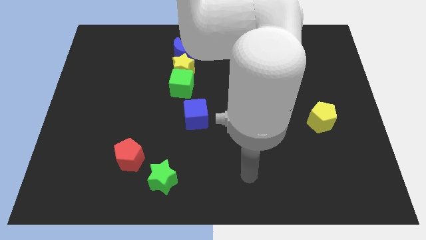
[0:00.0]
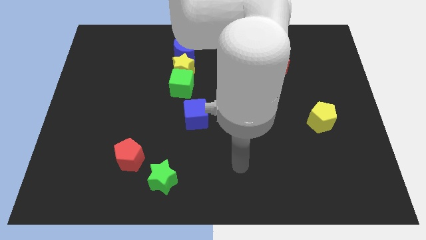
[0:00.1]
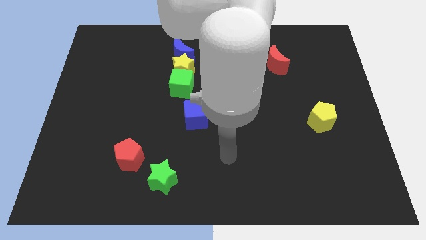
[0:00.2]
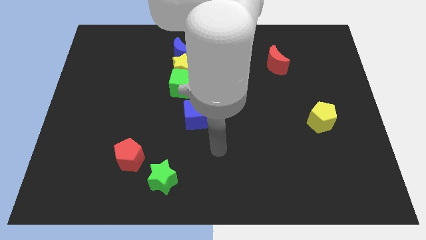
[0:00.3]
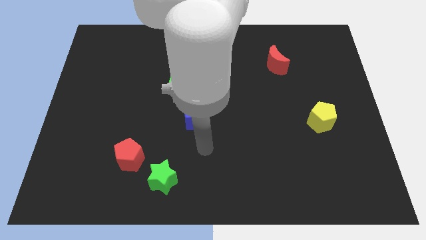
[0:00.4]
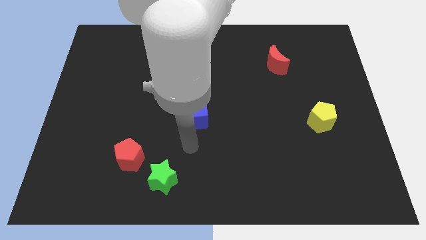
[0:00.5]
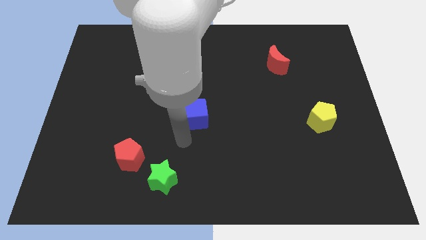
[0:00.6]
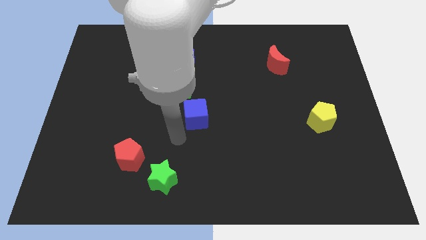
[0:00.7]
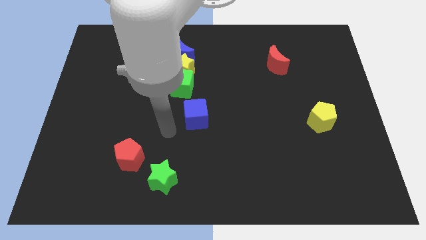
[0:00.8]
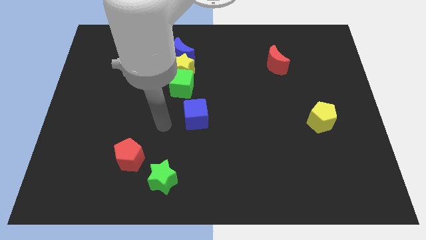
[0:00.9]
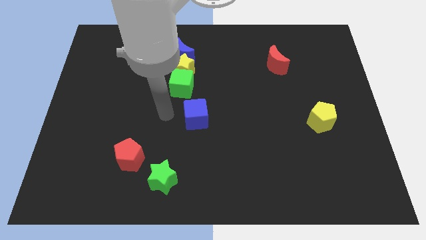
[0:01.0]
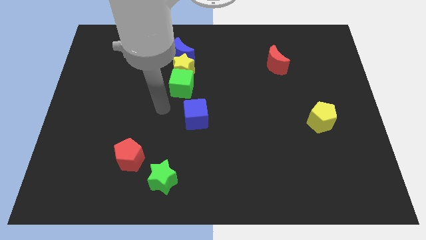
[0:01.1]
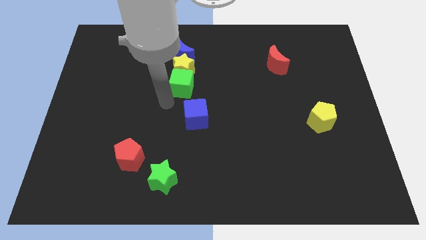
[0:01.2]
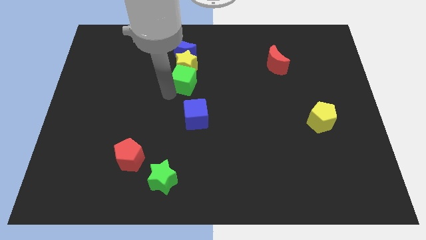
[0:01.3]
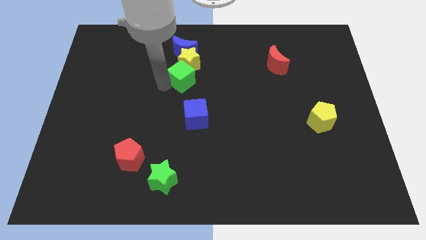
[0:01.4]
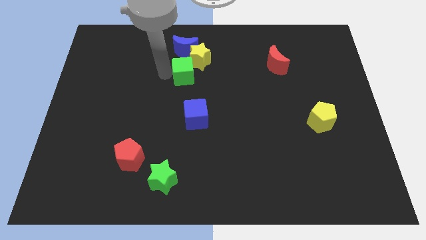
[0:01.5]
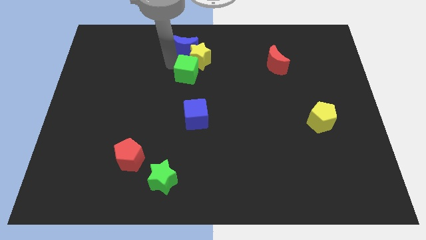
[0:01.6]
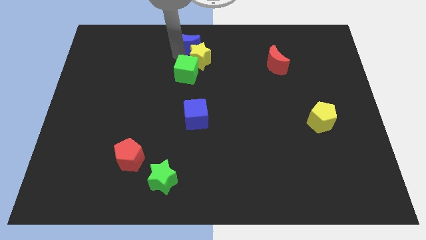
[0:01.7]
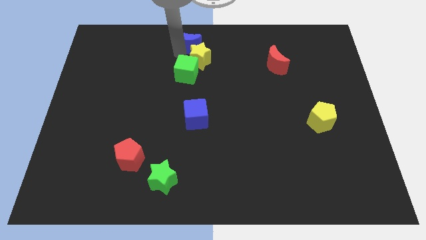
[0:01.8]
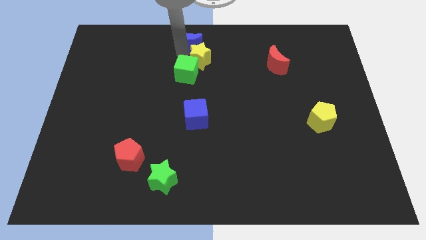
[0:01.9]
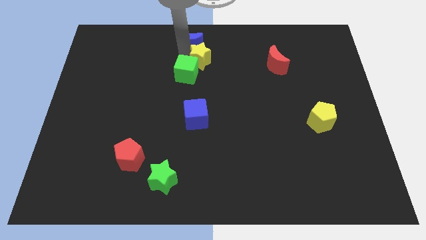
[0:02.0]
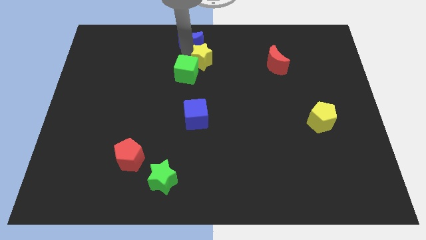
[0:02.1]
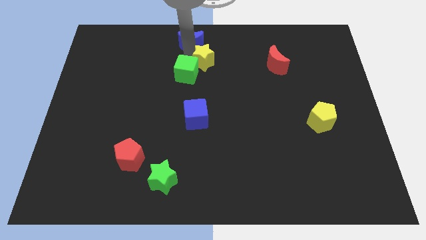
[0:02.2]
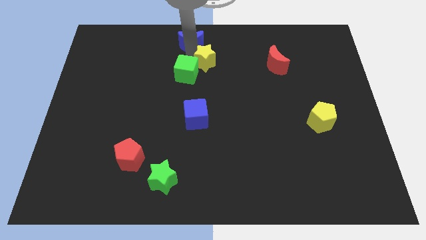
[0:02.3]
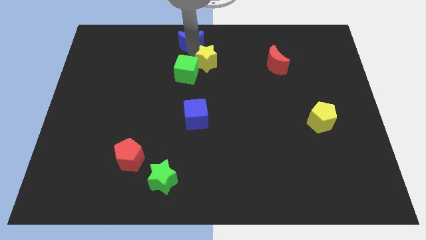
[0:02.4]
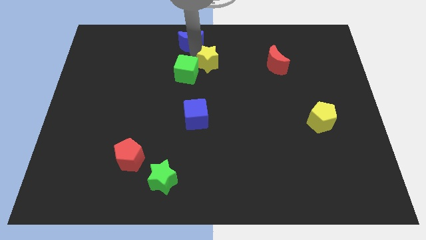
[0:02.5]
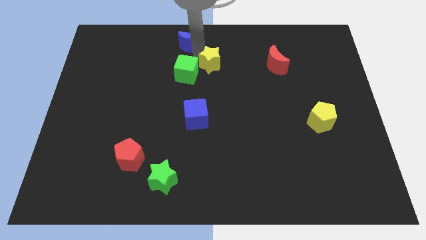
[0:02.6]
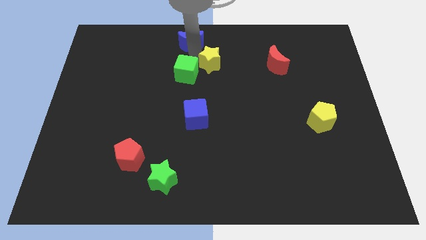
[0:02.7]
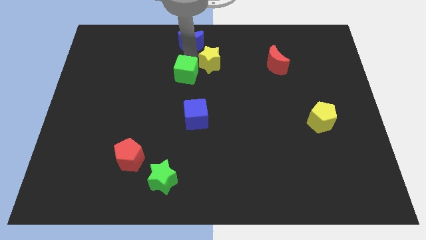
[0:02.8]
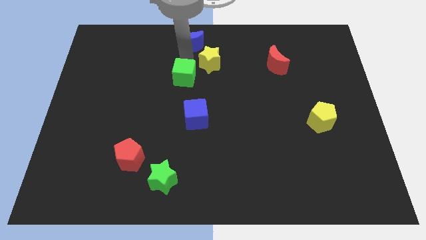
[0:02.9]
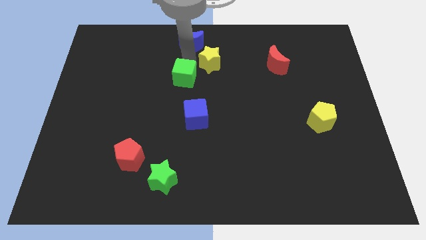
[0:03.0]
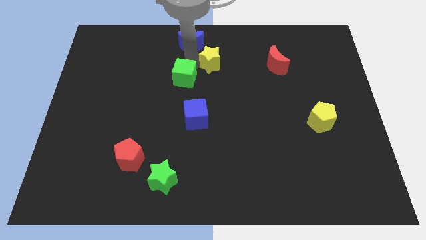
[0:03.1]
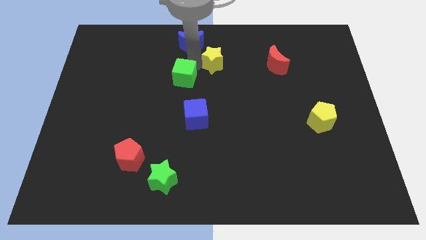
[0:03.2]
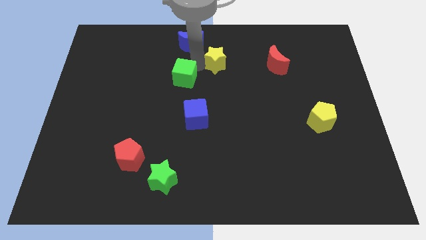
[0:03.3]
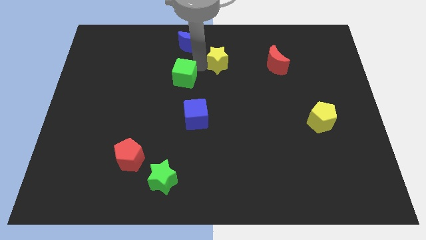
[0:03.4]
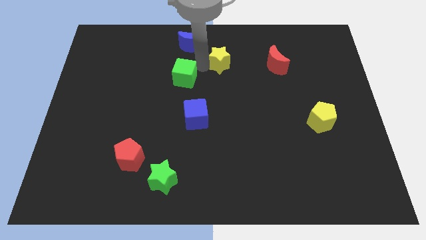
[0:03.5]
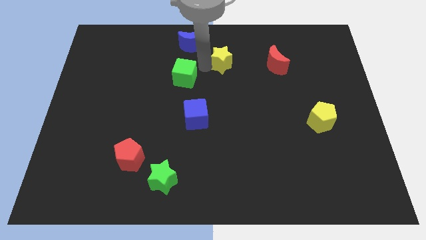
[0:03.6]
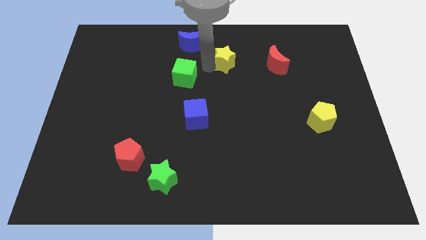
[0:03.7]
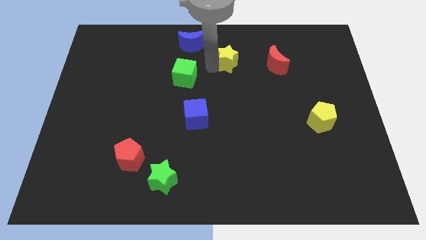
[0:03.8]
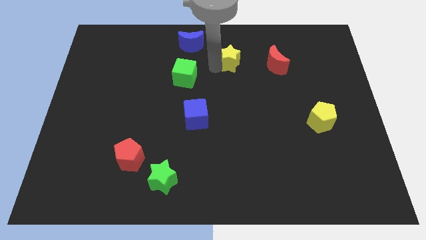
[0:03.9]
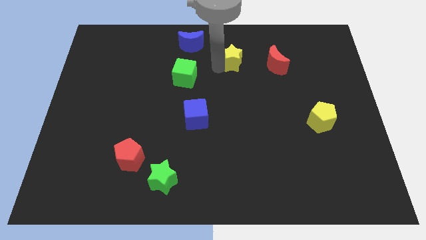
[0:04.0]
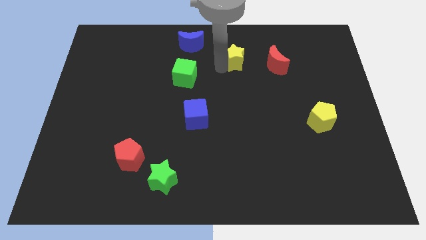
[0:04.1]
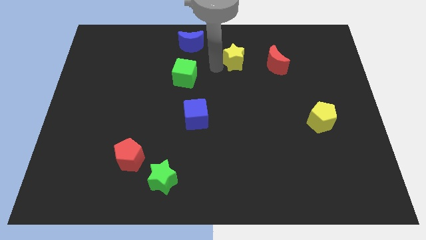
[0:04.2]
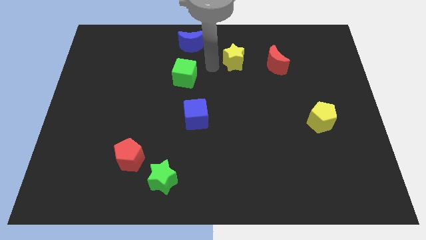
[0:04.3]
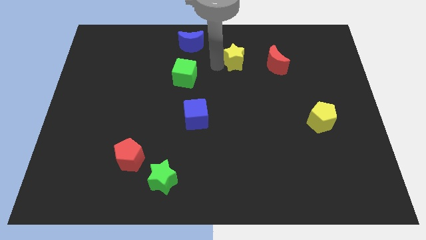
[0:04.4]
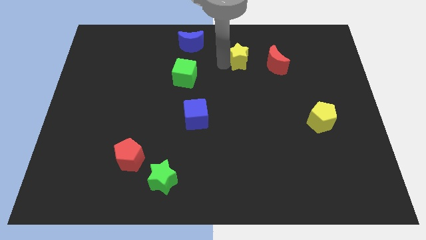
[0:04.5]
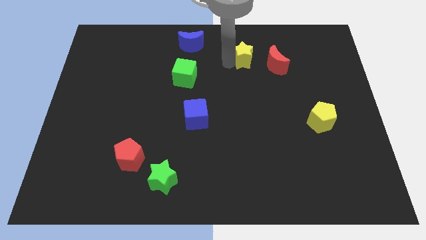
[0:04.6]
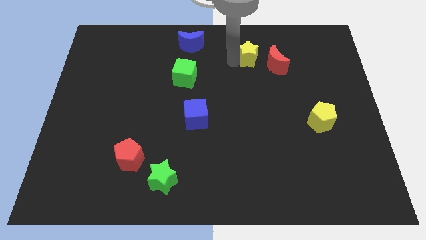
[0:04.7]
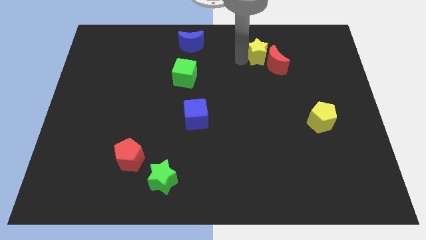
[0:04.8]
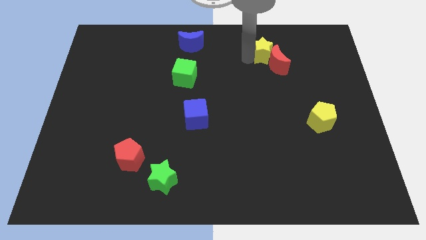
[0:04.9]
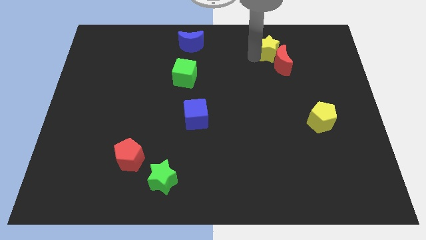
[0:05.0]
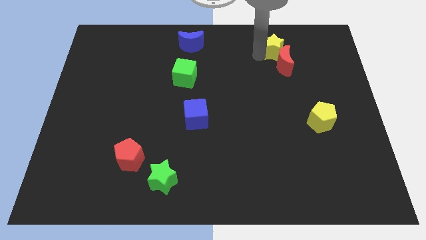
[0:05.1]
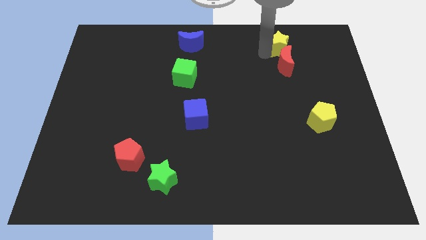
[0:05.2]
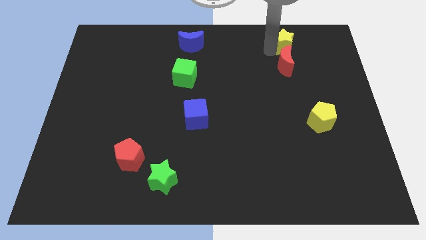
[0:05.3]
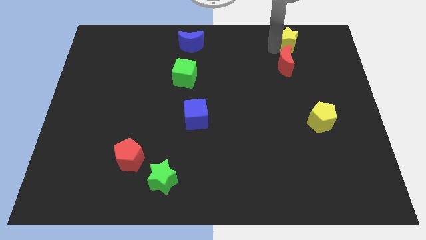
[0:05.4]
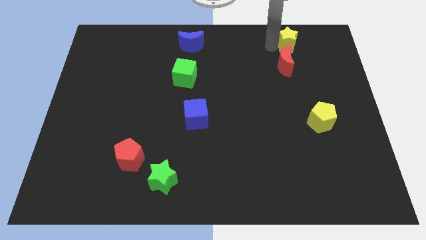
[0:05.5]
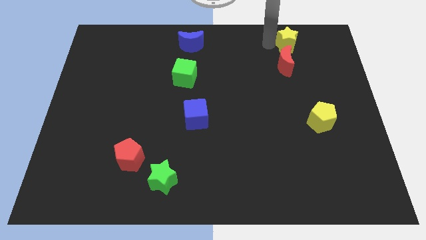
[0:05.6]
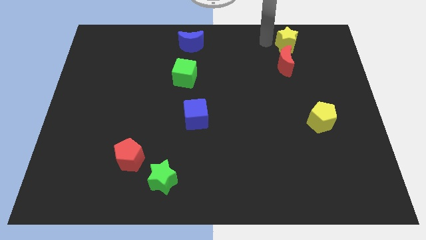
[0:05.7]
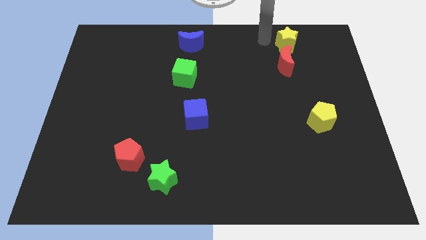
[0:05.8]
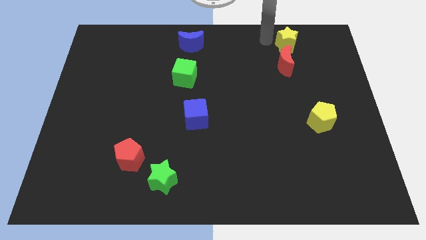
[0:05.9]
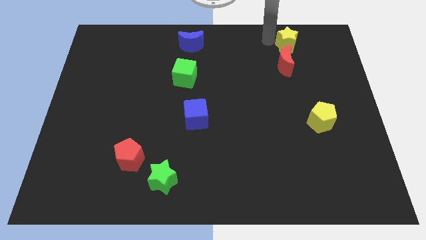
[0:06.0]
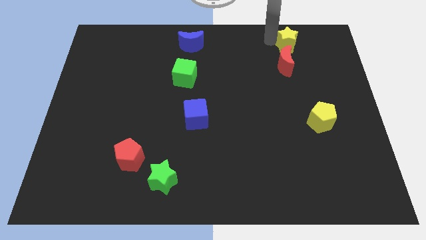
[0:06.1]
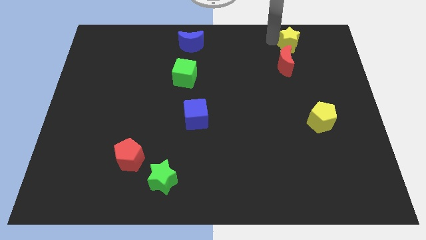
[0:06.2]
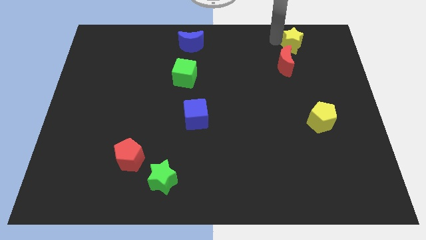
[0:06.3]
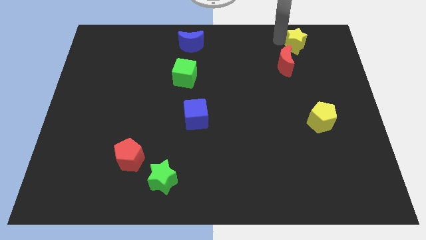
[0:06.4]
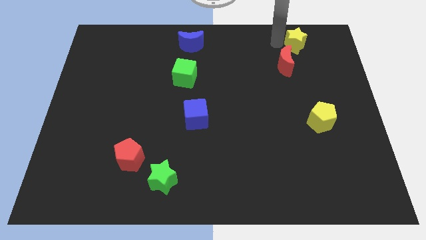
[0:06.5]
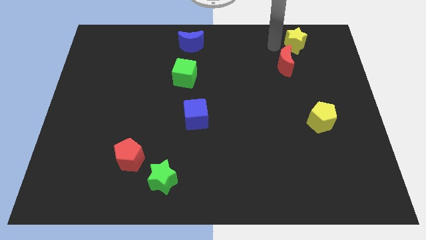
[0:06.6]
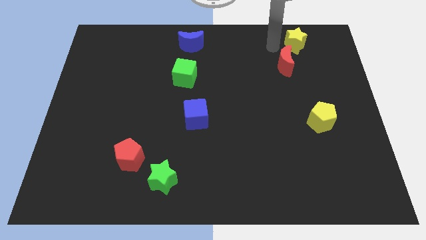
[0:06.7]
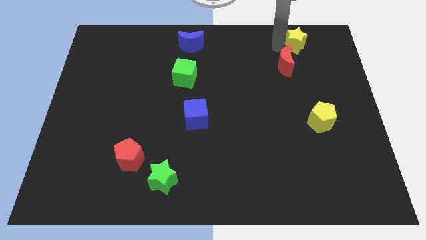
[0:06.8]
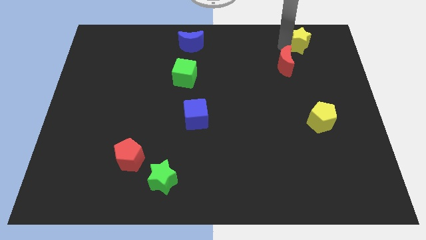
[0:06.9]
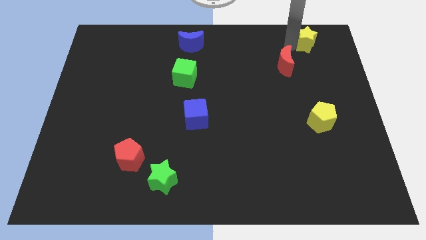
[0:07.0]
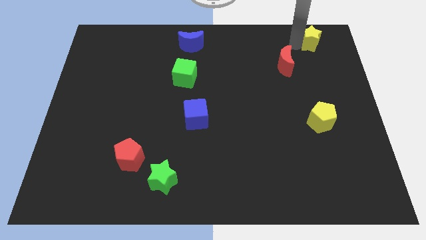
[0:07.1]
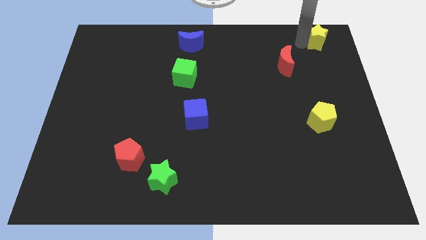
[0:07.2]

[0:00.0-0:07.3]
push the yellow star to the top right of the board

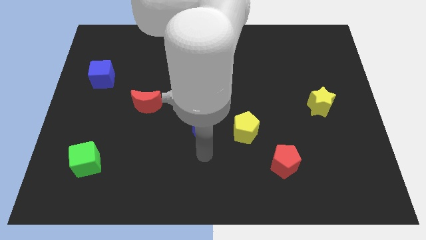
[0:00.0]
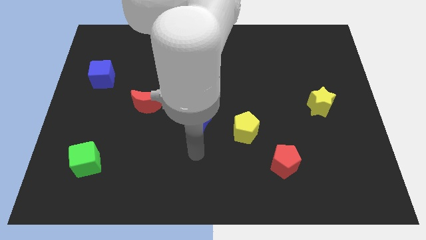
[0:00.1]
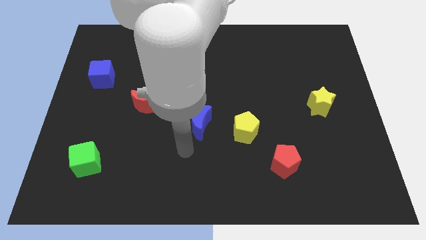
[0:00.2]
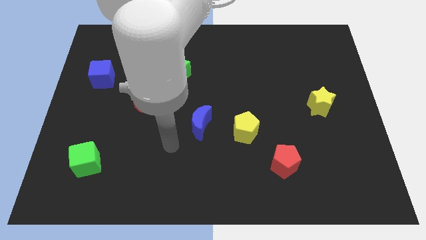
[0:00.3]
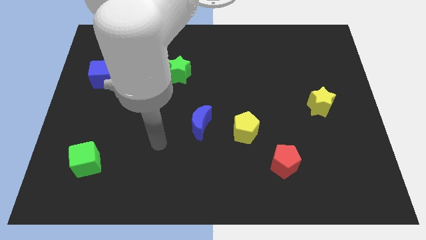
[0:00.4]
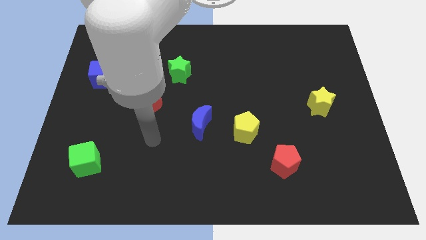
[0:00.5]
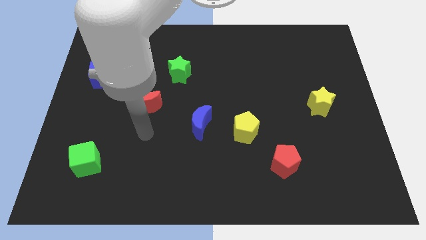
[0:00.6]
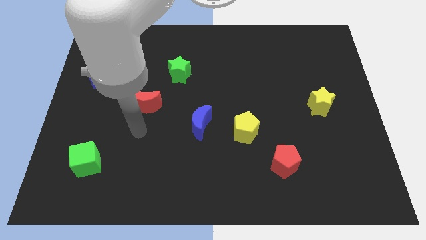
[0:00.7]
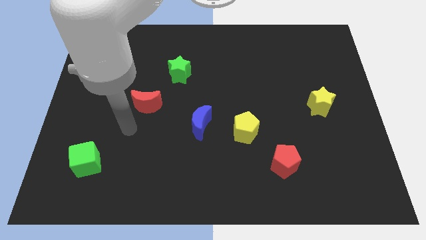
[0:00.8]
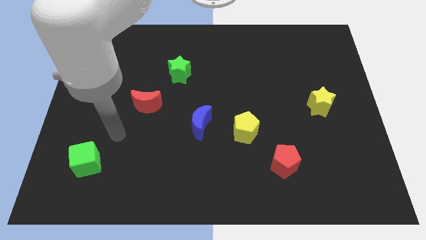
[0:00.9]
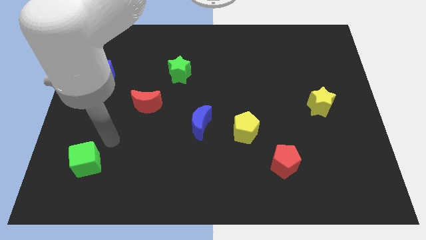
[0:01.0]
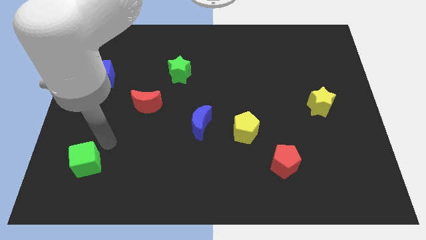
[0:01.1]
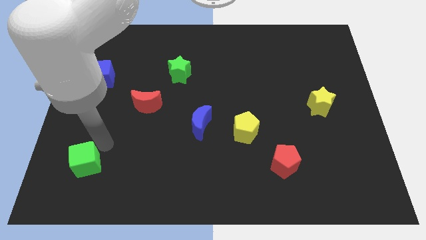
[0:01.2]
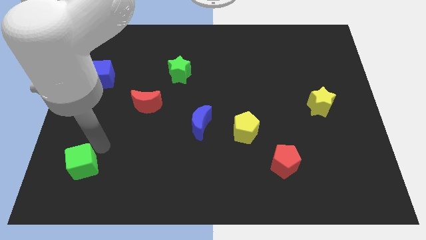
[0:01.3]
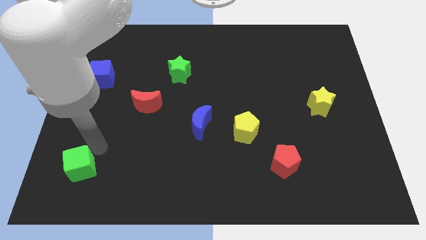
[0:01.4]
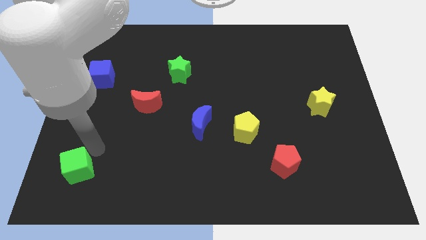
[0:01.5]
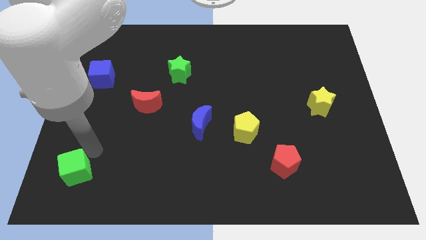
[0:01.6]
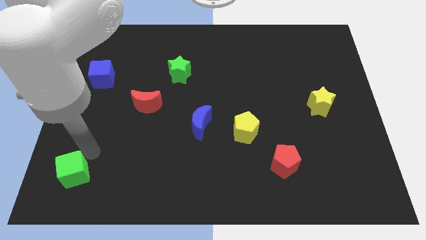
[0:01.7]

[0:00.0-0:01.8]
move the green cube to the bottom left corner
